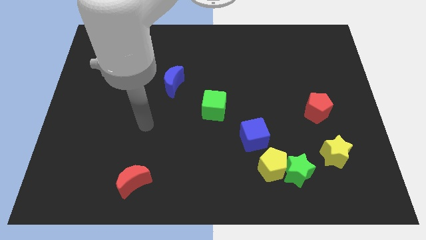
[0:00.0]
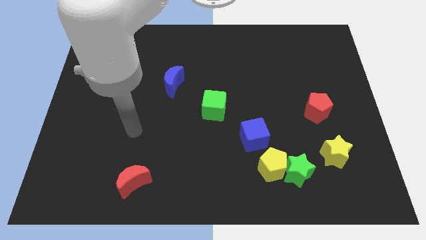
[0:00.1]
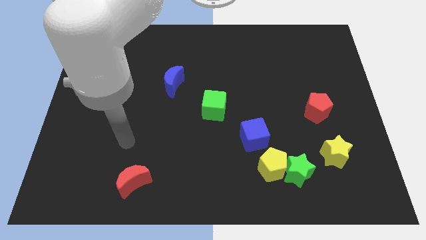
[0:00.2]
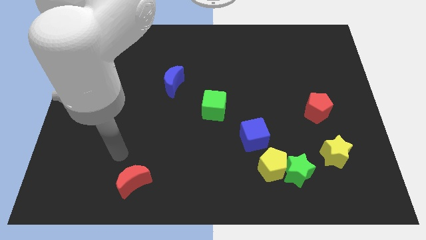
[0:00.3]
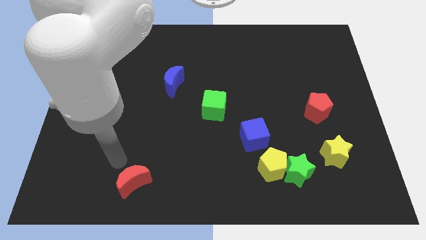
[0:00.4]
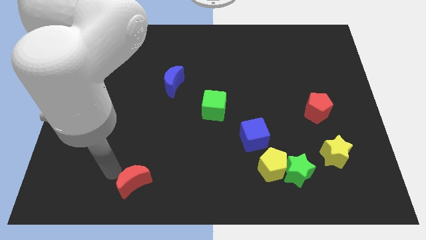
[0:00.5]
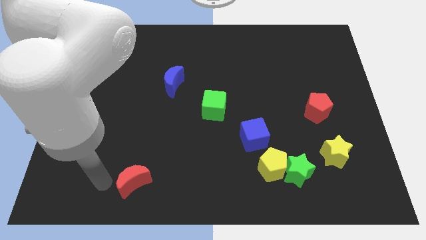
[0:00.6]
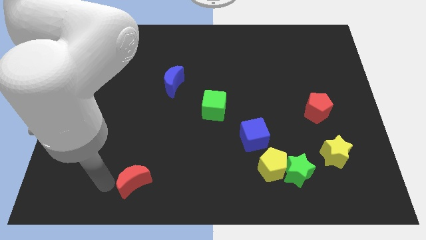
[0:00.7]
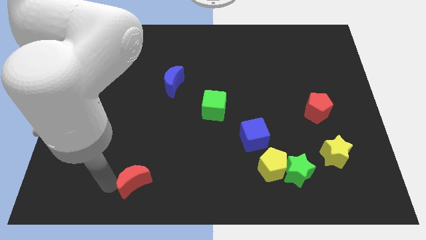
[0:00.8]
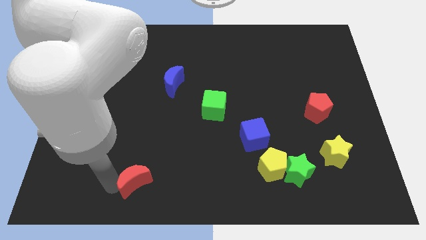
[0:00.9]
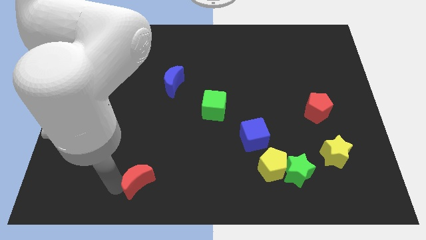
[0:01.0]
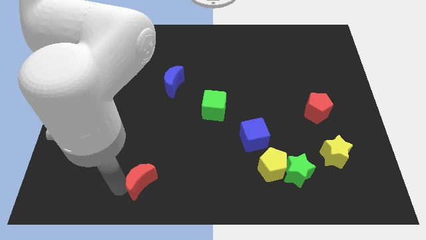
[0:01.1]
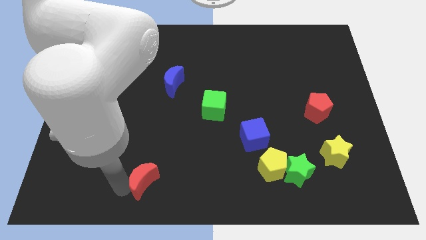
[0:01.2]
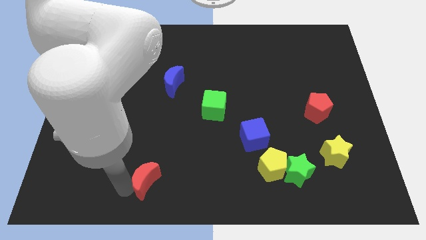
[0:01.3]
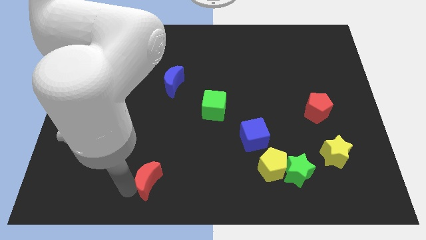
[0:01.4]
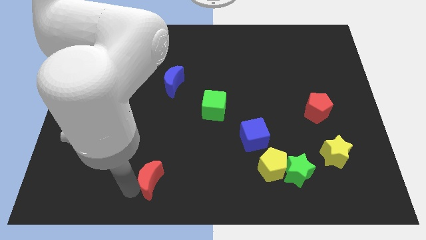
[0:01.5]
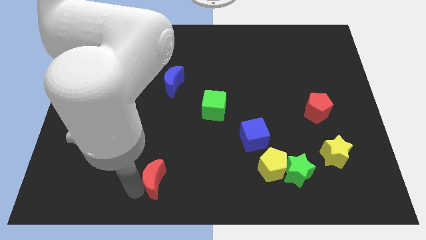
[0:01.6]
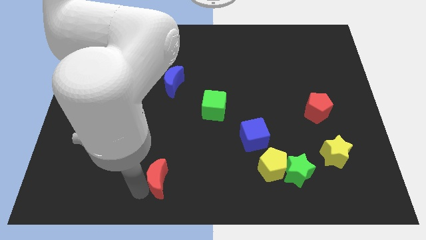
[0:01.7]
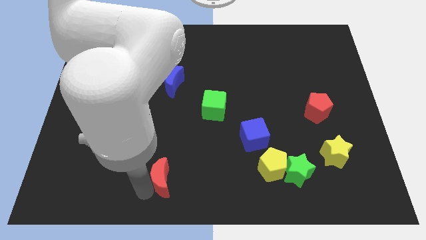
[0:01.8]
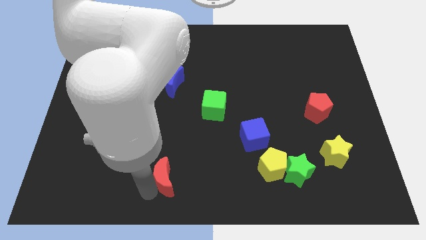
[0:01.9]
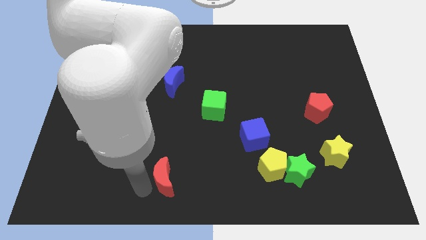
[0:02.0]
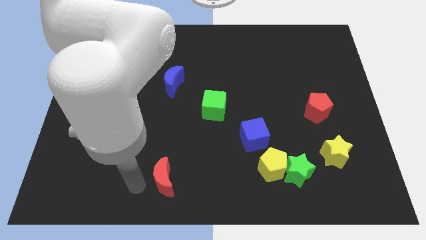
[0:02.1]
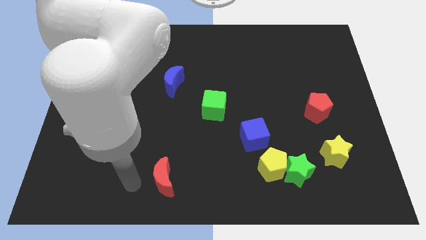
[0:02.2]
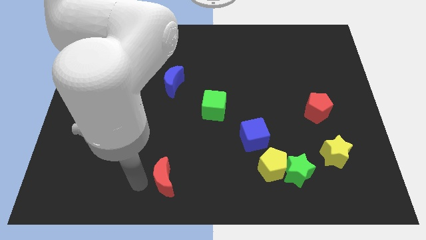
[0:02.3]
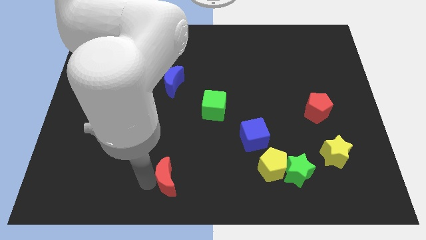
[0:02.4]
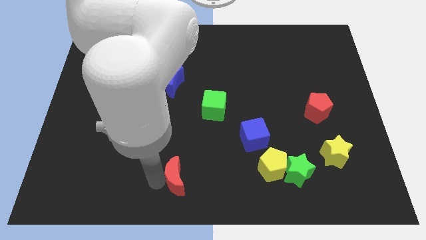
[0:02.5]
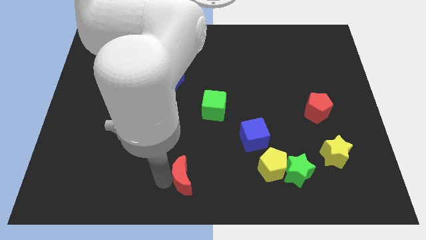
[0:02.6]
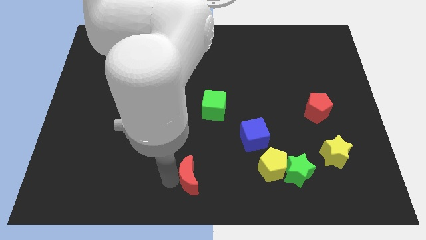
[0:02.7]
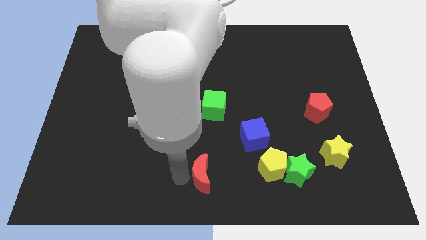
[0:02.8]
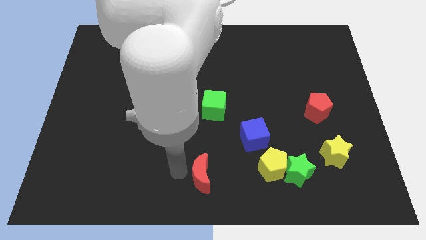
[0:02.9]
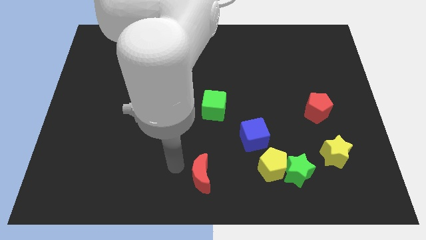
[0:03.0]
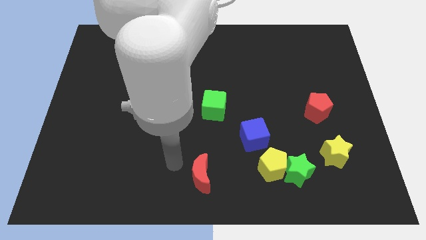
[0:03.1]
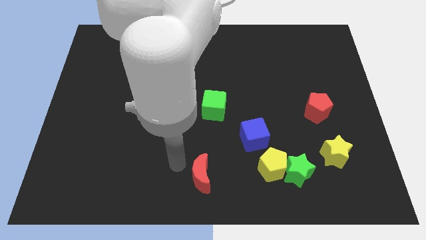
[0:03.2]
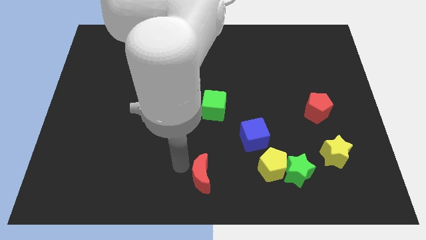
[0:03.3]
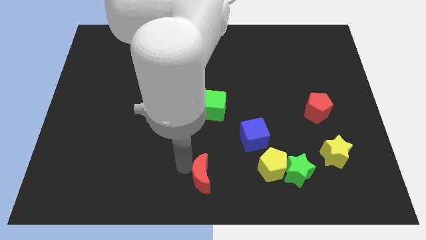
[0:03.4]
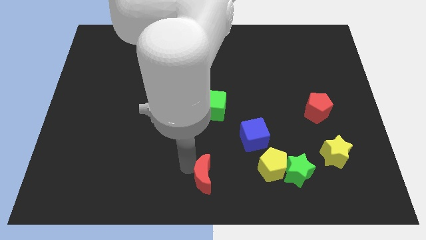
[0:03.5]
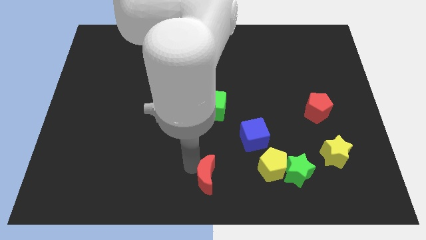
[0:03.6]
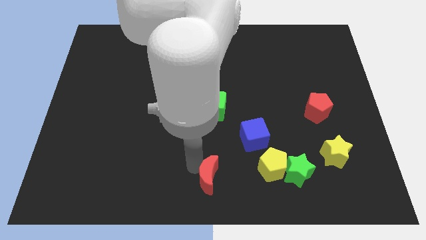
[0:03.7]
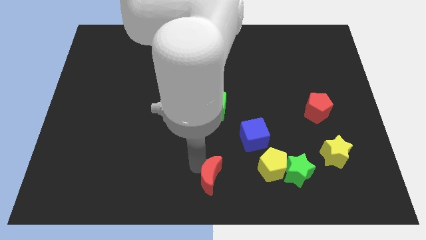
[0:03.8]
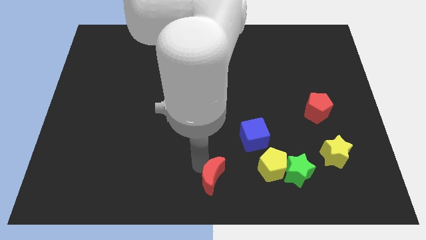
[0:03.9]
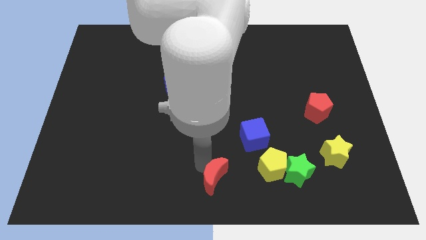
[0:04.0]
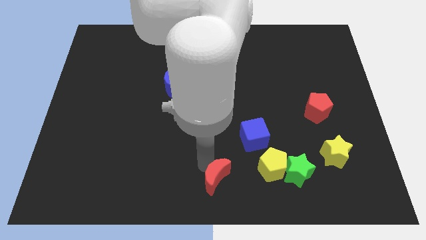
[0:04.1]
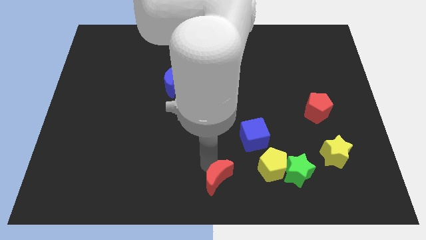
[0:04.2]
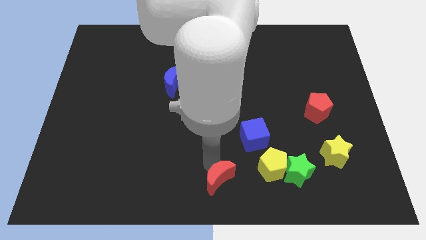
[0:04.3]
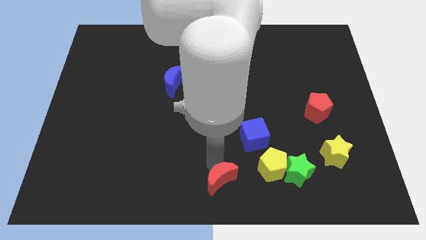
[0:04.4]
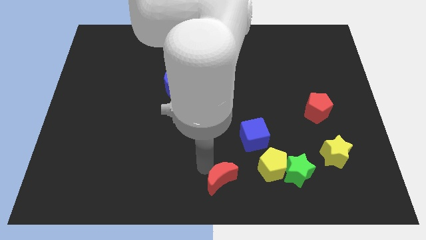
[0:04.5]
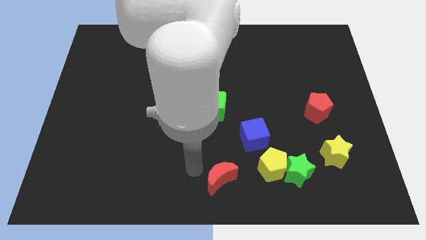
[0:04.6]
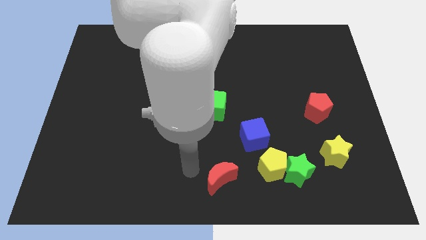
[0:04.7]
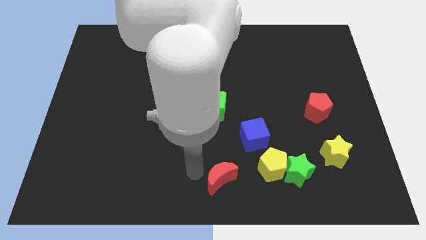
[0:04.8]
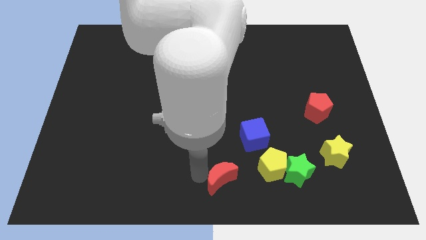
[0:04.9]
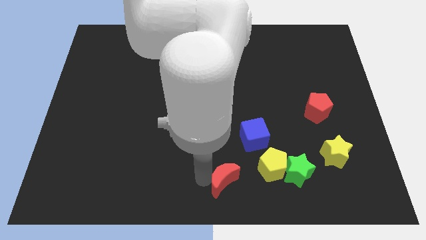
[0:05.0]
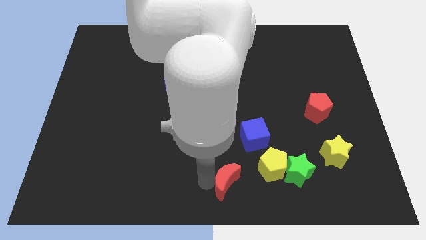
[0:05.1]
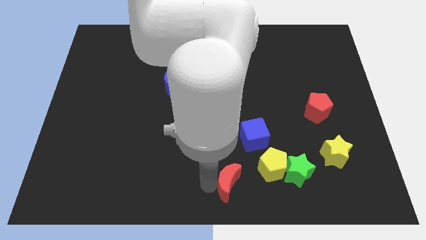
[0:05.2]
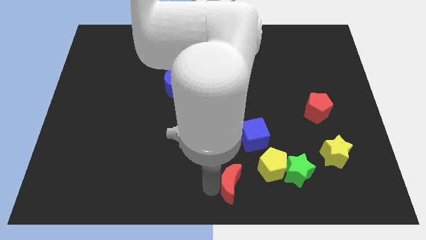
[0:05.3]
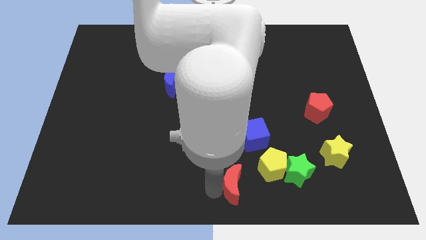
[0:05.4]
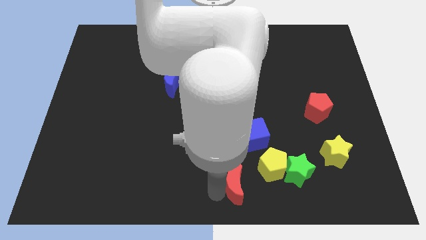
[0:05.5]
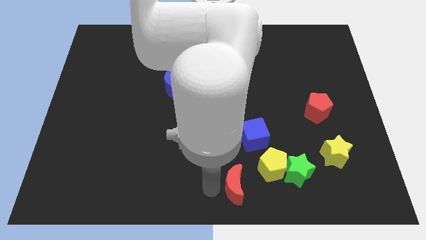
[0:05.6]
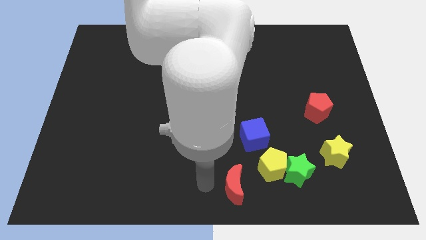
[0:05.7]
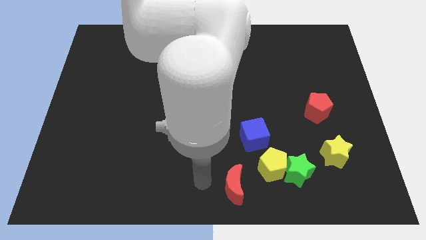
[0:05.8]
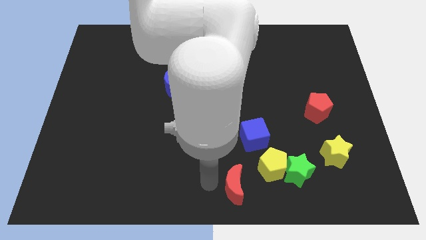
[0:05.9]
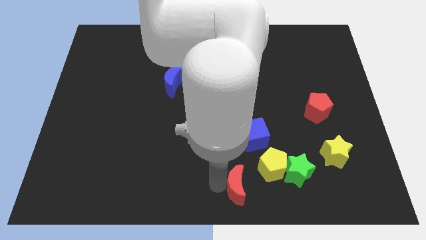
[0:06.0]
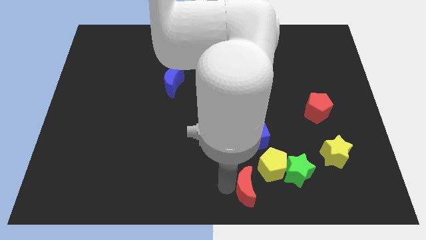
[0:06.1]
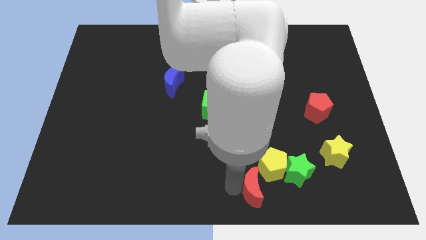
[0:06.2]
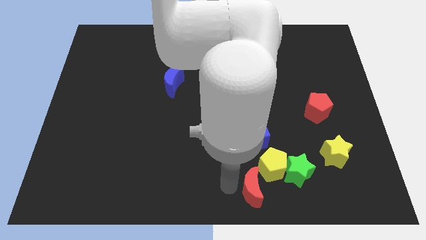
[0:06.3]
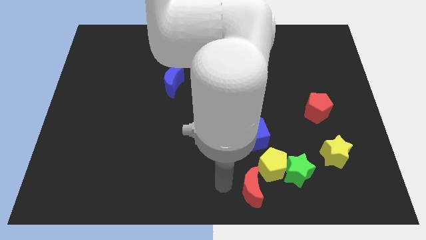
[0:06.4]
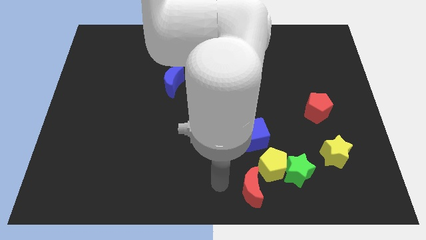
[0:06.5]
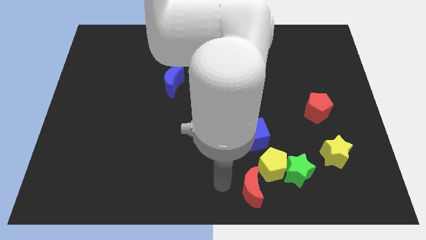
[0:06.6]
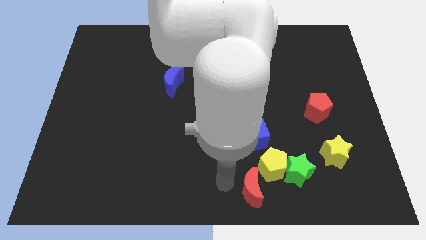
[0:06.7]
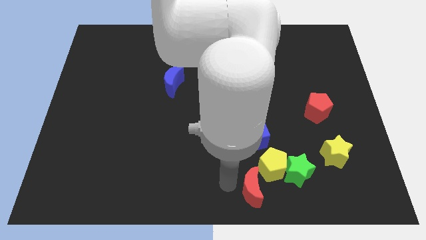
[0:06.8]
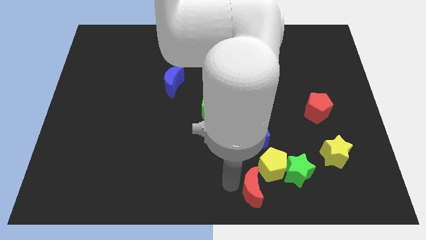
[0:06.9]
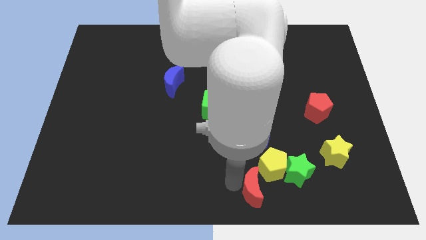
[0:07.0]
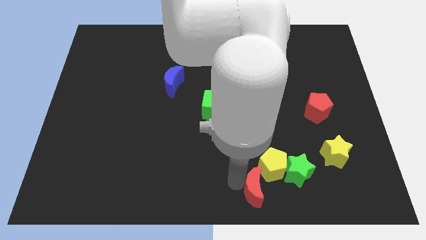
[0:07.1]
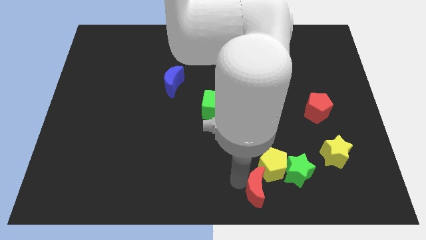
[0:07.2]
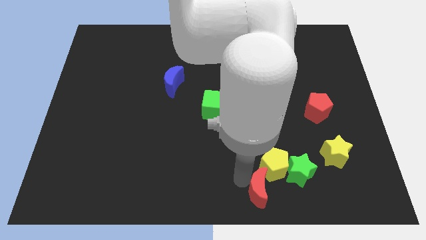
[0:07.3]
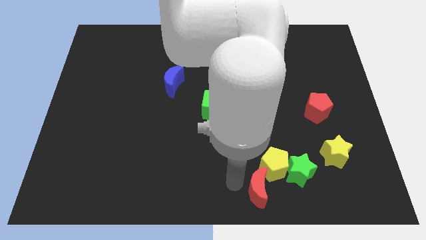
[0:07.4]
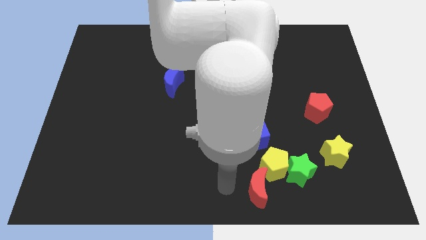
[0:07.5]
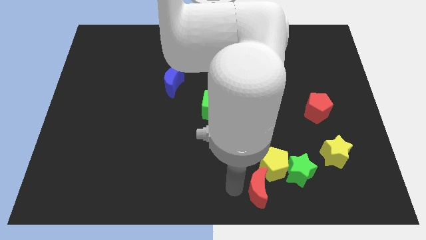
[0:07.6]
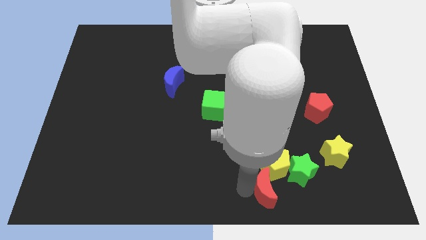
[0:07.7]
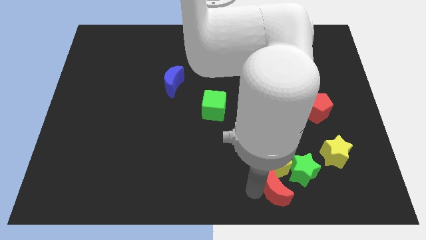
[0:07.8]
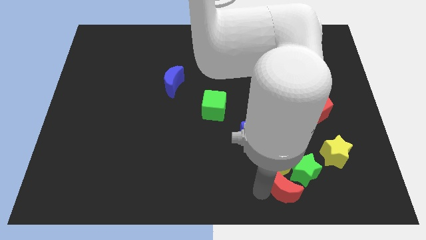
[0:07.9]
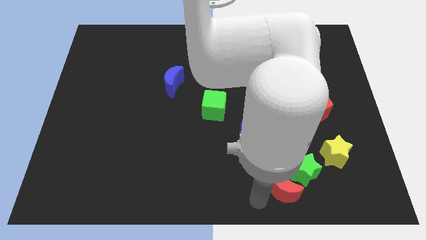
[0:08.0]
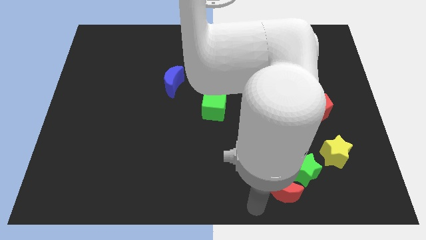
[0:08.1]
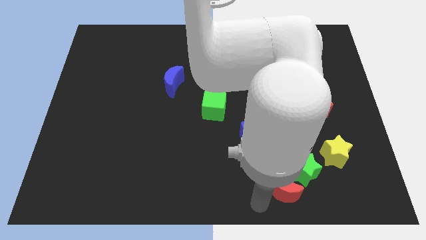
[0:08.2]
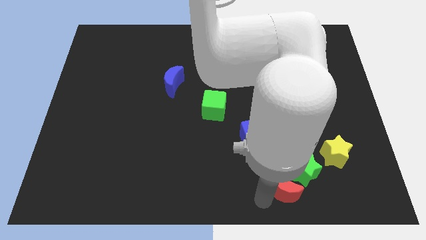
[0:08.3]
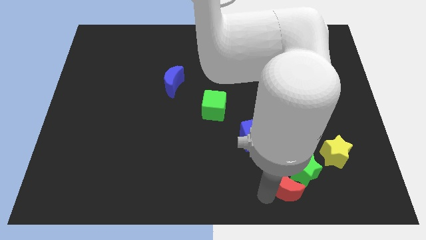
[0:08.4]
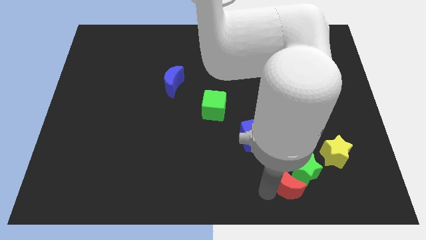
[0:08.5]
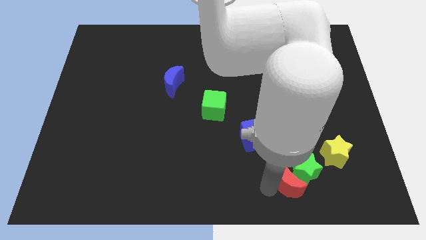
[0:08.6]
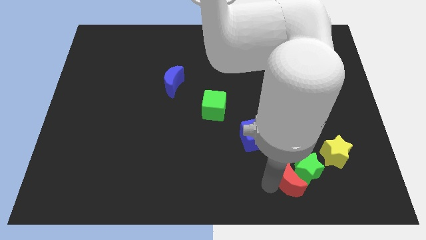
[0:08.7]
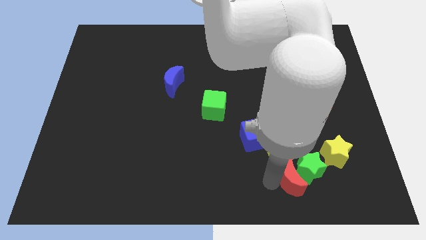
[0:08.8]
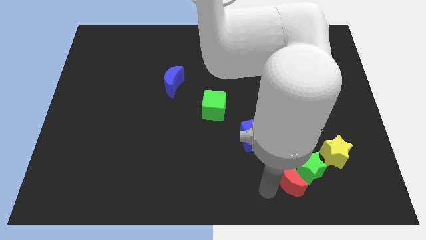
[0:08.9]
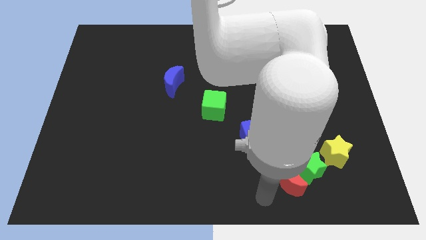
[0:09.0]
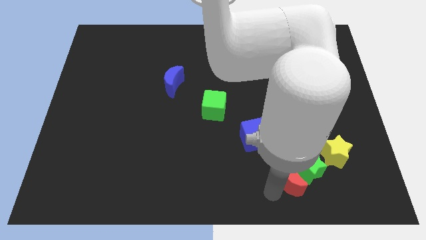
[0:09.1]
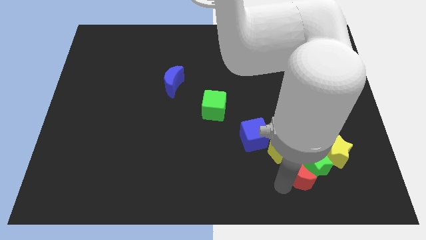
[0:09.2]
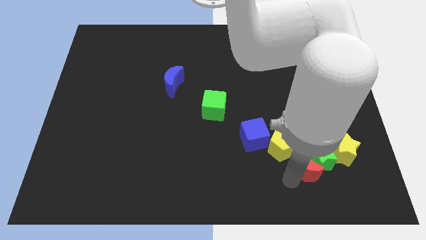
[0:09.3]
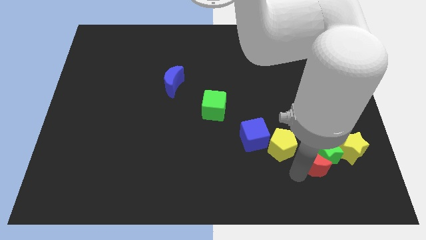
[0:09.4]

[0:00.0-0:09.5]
put the red moon right of the yellow pentagon
